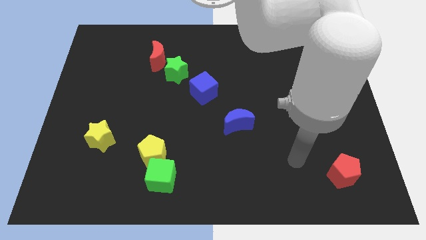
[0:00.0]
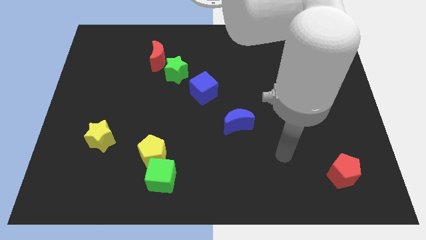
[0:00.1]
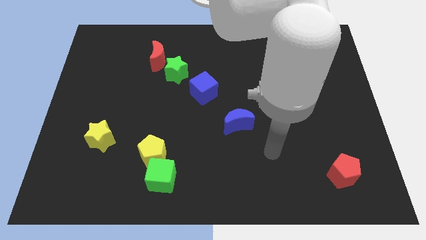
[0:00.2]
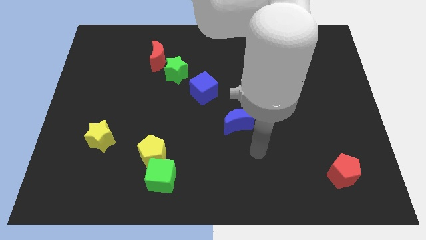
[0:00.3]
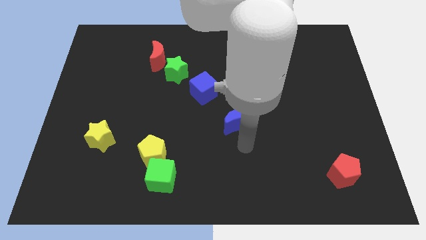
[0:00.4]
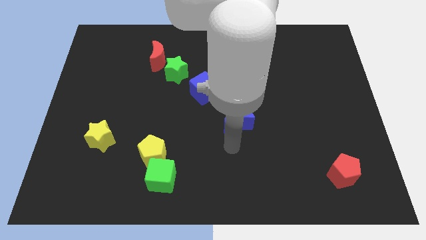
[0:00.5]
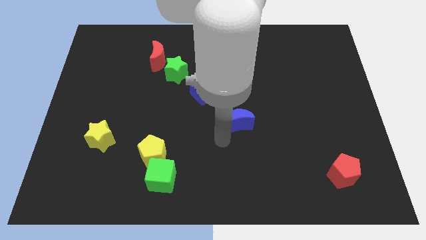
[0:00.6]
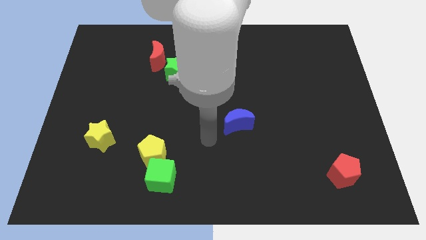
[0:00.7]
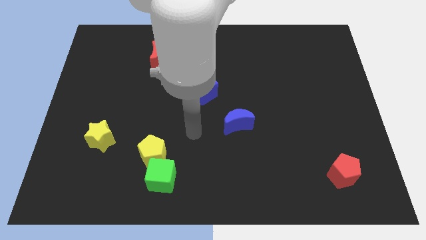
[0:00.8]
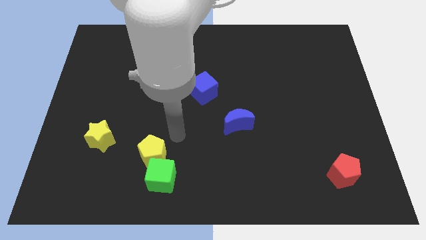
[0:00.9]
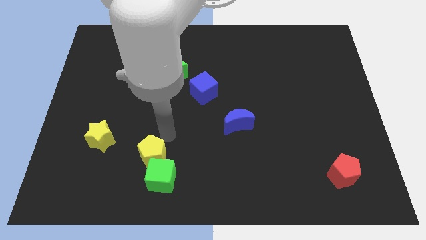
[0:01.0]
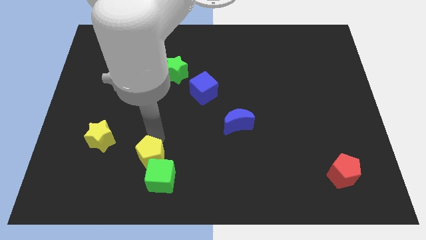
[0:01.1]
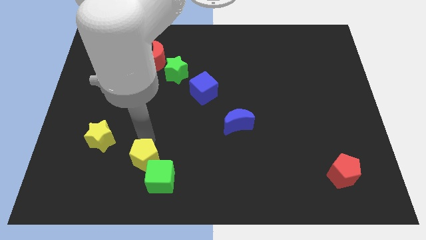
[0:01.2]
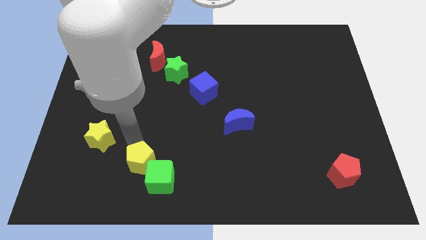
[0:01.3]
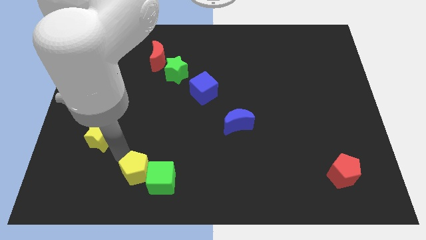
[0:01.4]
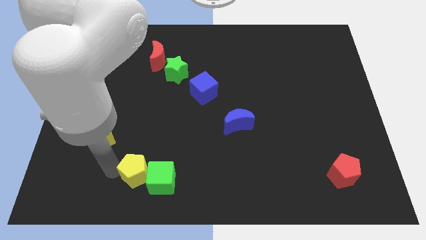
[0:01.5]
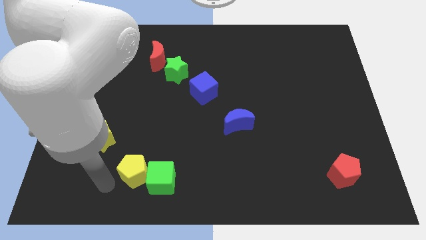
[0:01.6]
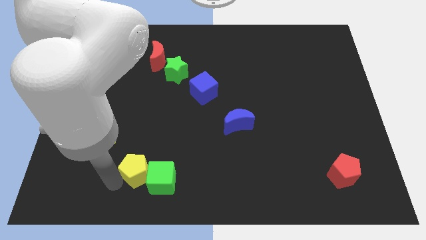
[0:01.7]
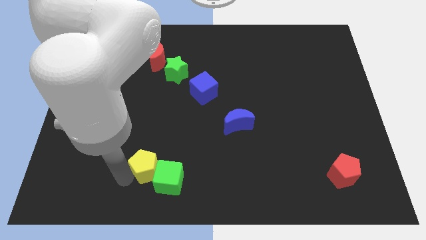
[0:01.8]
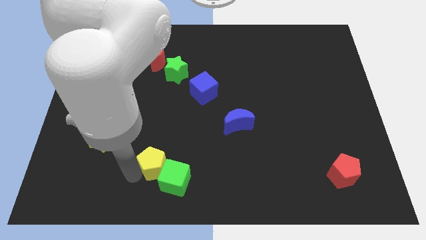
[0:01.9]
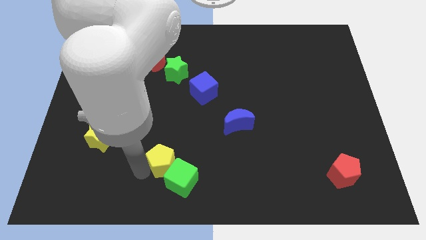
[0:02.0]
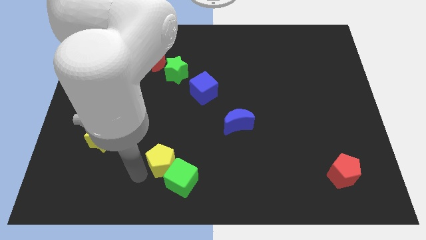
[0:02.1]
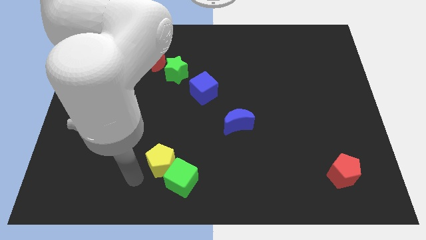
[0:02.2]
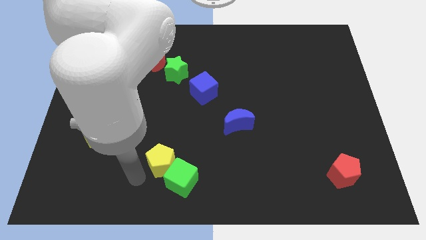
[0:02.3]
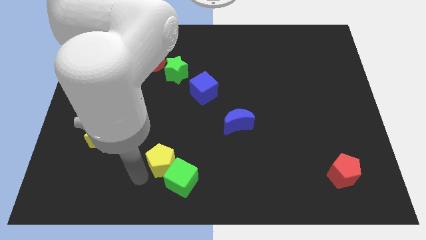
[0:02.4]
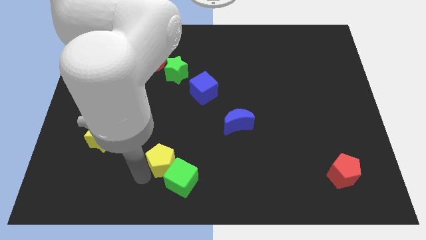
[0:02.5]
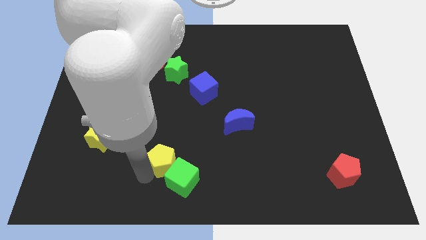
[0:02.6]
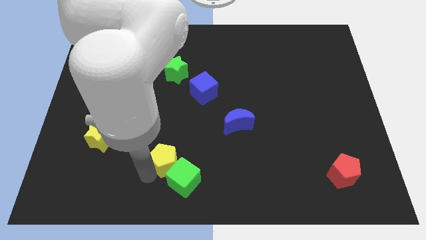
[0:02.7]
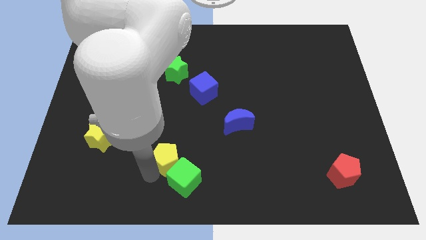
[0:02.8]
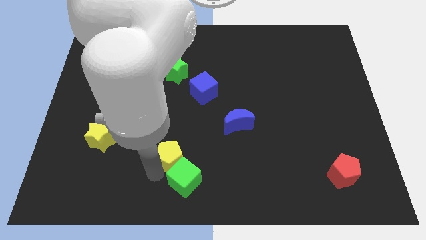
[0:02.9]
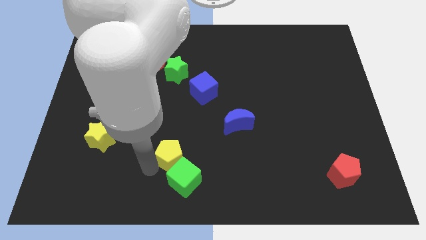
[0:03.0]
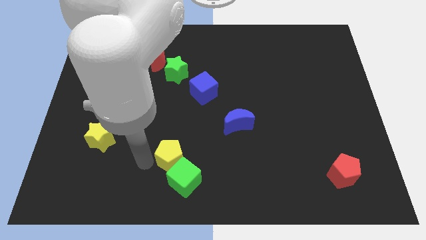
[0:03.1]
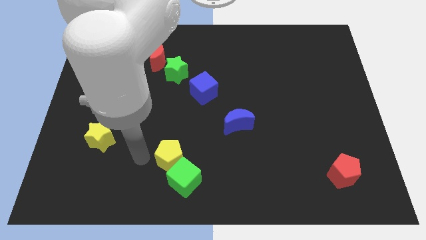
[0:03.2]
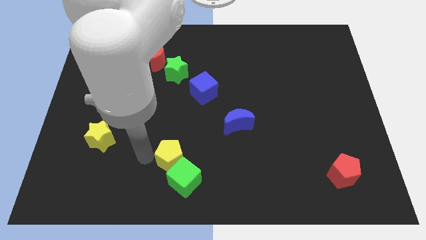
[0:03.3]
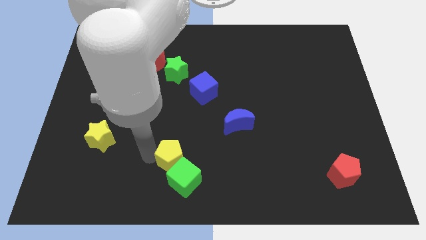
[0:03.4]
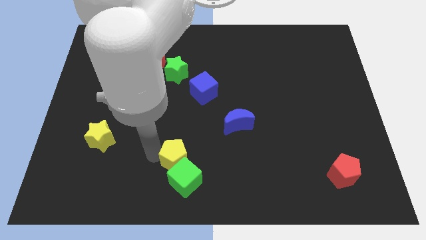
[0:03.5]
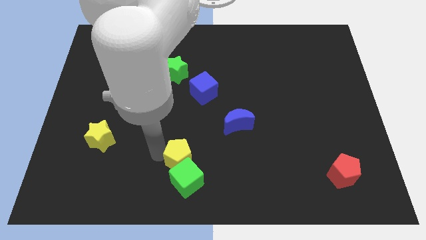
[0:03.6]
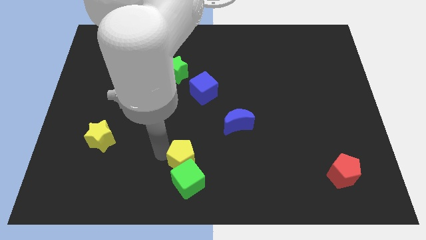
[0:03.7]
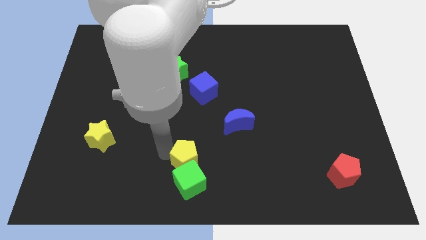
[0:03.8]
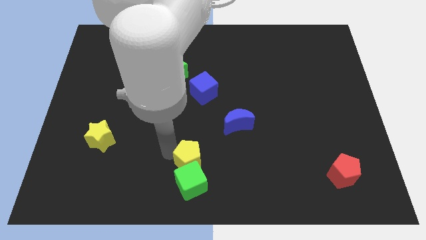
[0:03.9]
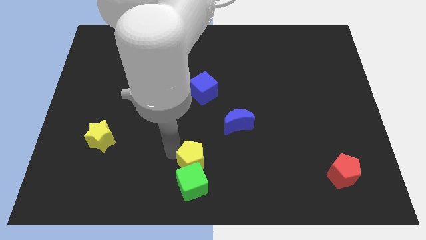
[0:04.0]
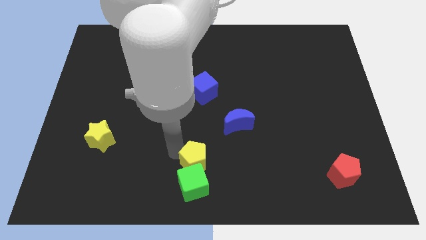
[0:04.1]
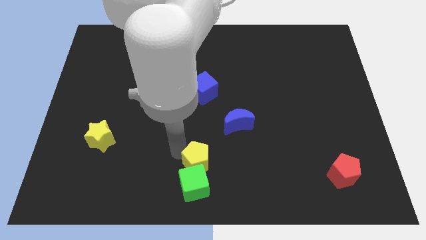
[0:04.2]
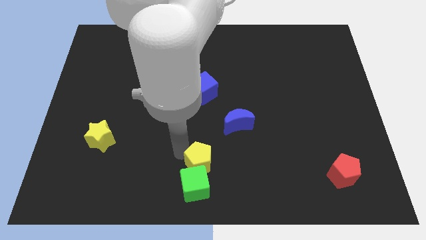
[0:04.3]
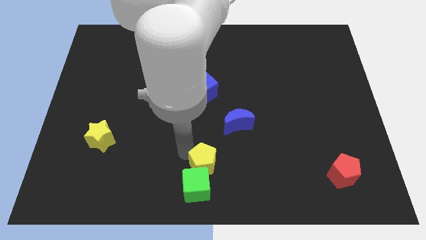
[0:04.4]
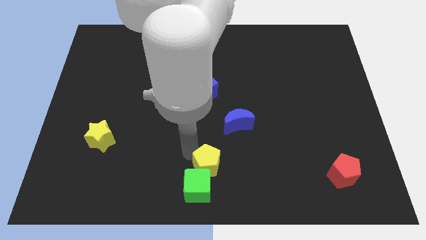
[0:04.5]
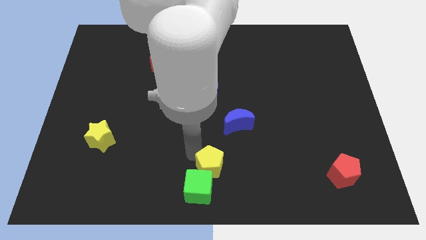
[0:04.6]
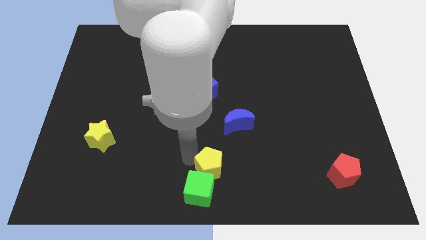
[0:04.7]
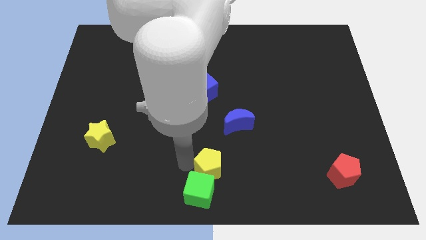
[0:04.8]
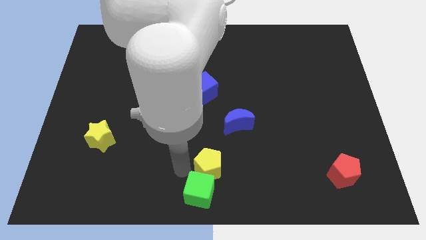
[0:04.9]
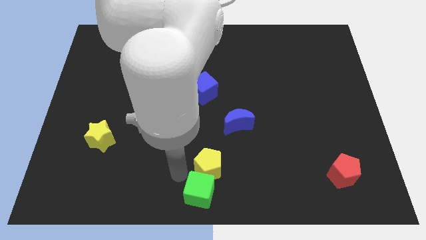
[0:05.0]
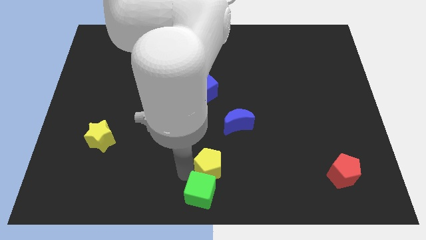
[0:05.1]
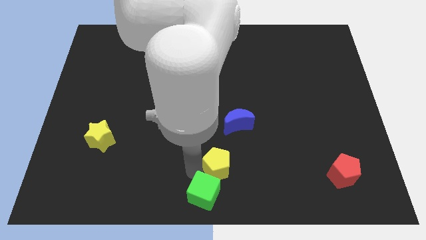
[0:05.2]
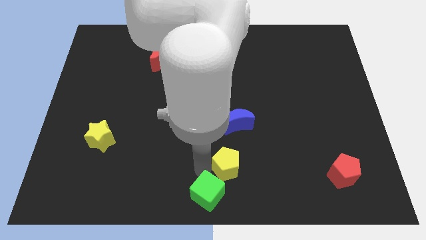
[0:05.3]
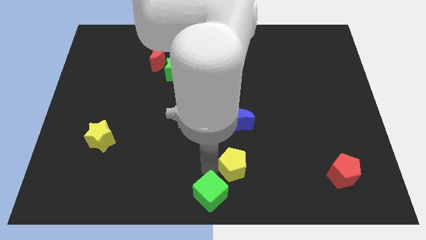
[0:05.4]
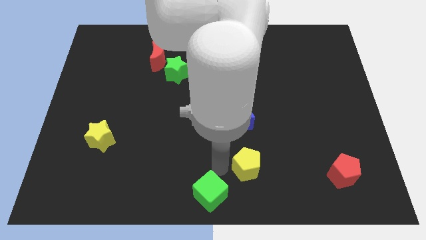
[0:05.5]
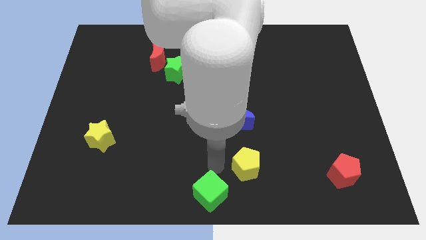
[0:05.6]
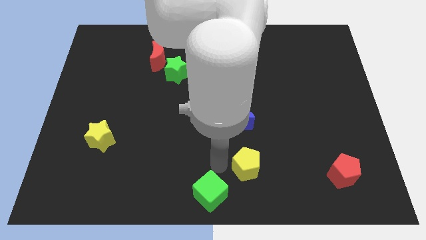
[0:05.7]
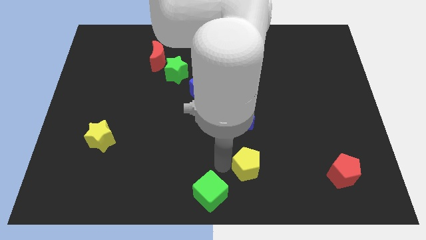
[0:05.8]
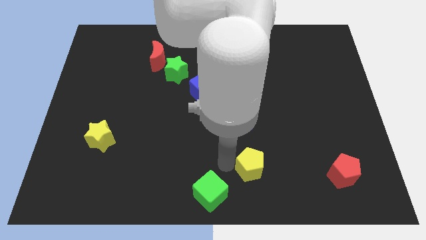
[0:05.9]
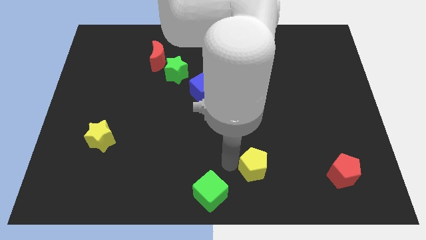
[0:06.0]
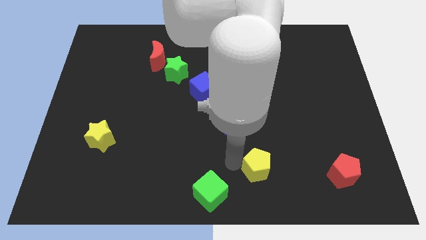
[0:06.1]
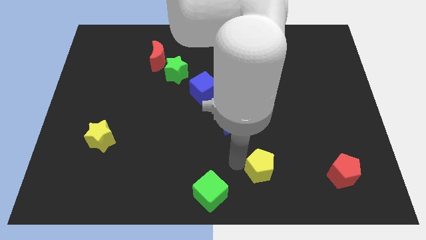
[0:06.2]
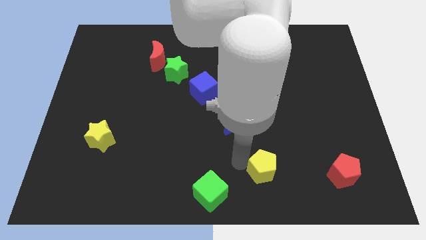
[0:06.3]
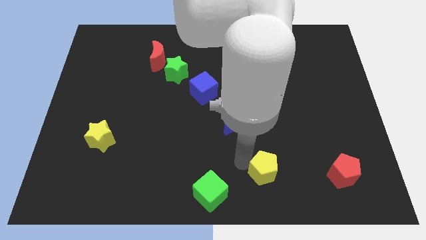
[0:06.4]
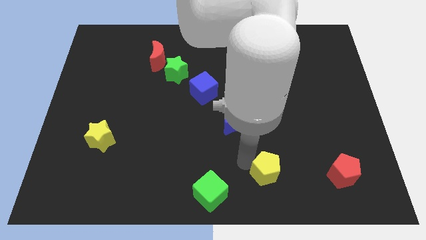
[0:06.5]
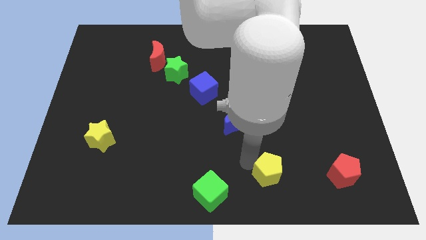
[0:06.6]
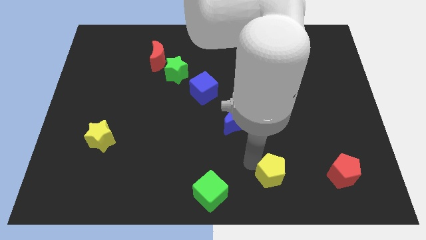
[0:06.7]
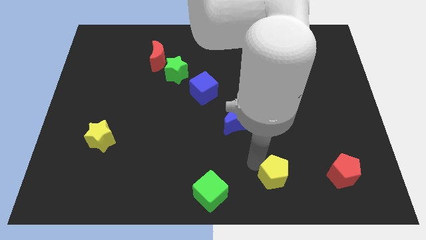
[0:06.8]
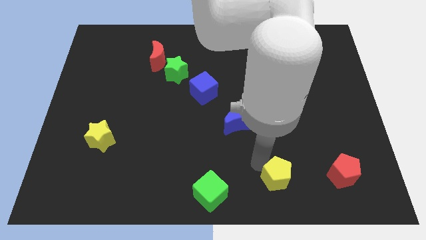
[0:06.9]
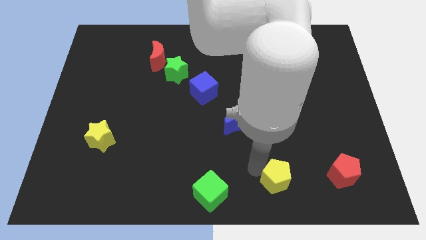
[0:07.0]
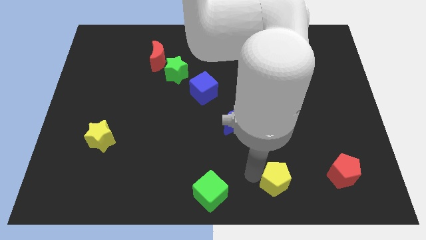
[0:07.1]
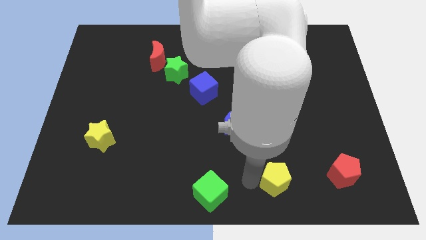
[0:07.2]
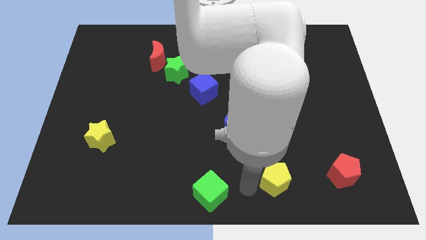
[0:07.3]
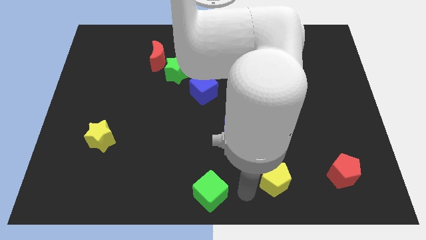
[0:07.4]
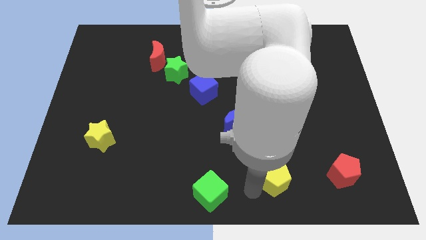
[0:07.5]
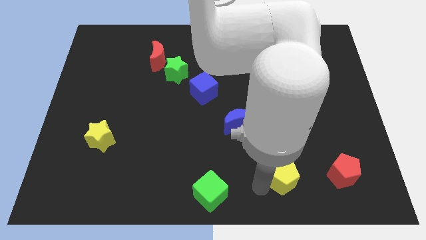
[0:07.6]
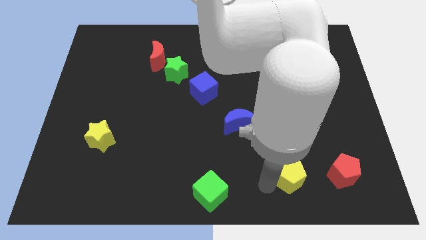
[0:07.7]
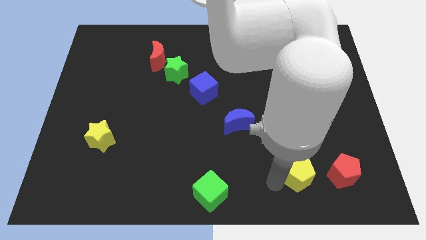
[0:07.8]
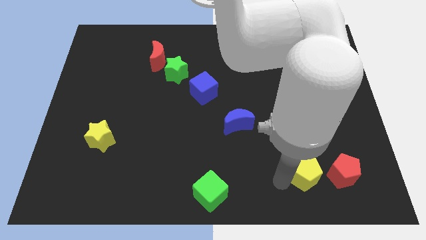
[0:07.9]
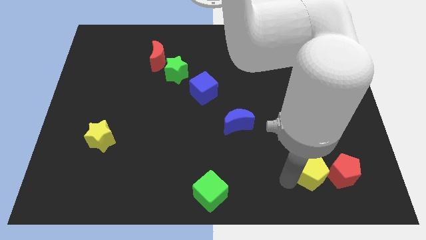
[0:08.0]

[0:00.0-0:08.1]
push the yellow pentagon next to the red pentagon
